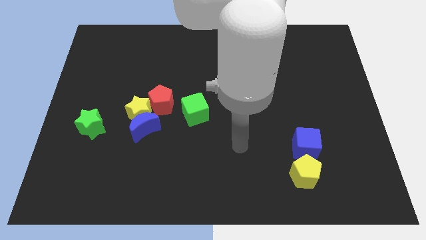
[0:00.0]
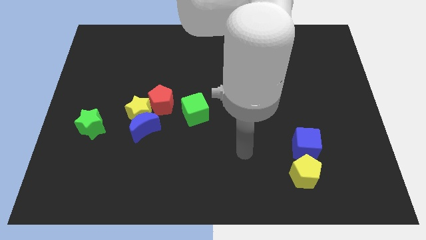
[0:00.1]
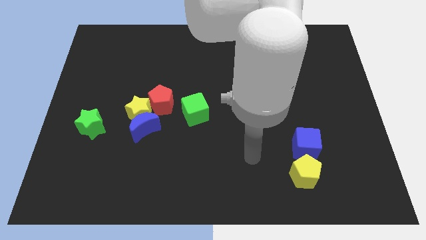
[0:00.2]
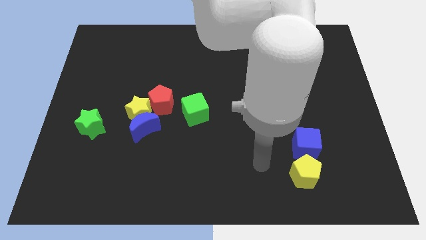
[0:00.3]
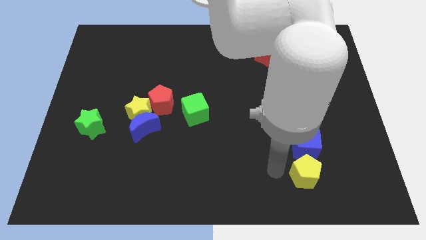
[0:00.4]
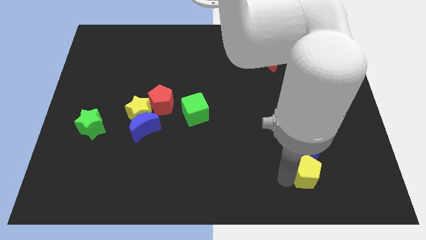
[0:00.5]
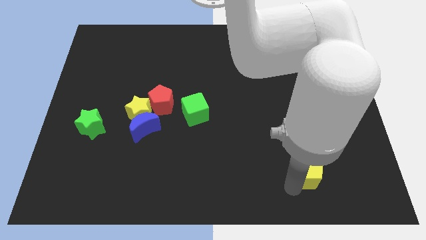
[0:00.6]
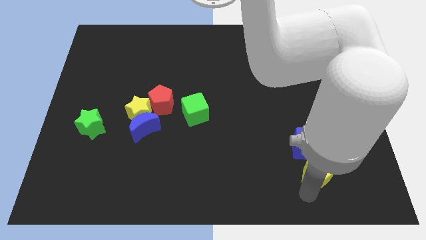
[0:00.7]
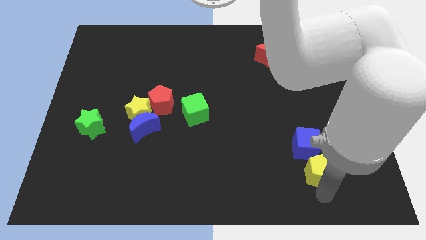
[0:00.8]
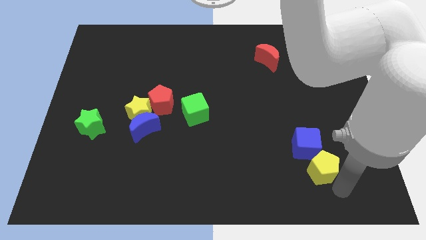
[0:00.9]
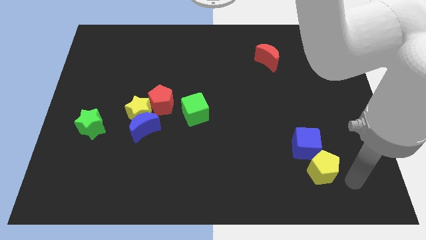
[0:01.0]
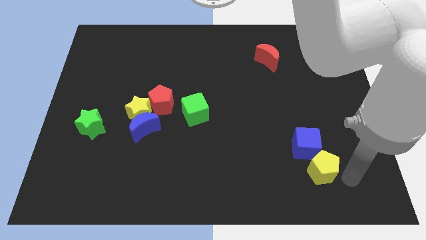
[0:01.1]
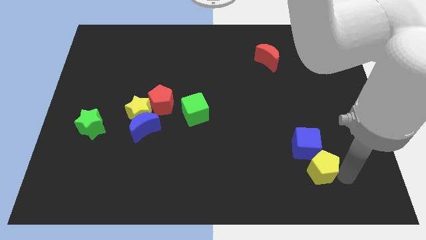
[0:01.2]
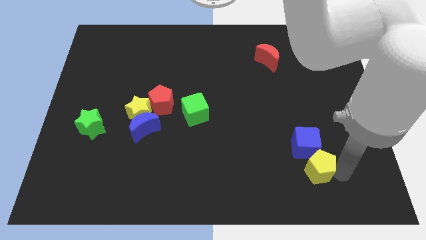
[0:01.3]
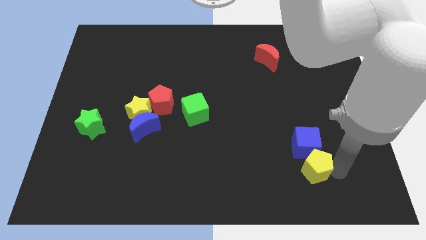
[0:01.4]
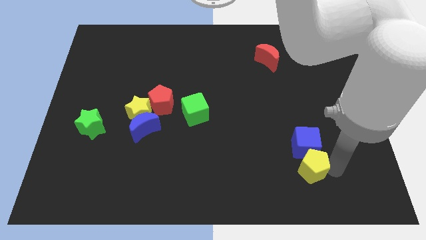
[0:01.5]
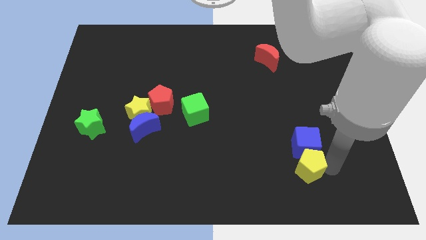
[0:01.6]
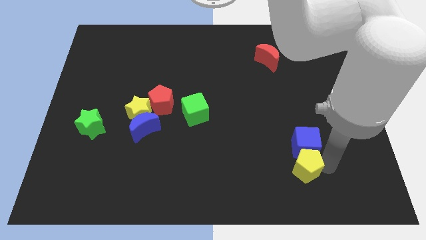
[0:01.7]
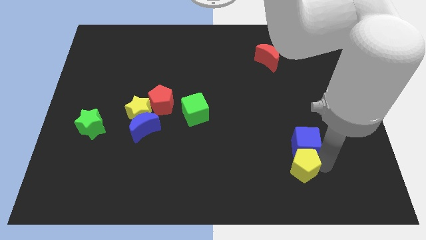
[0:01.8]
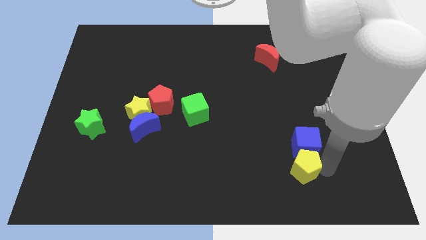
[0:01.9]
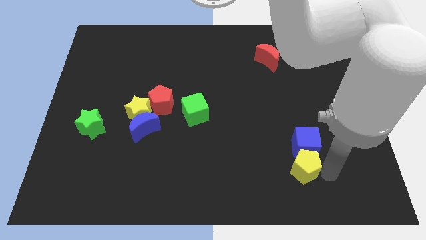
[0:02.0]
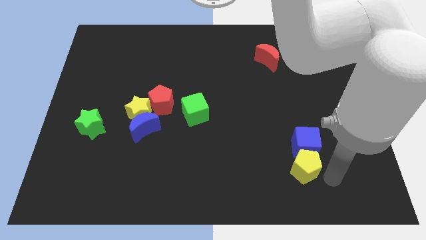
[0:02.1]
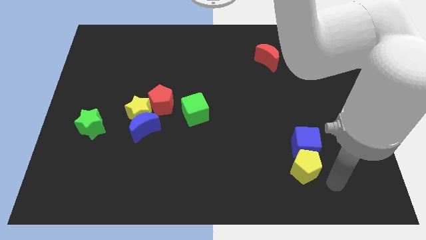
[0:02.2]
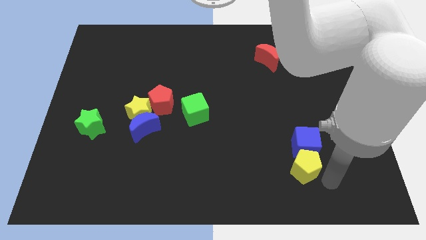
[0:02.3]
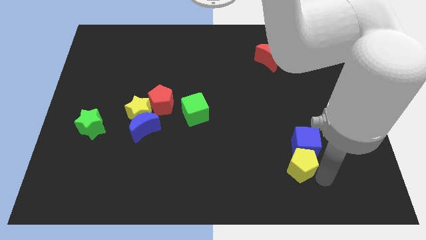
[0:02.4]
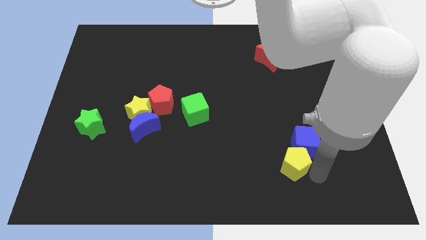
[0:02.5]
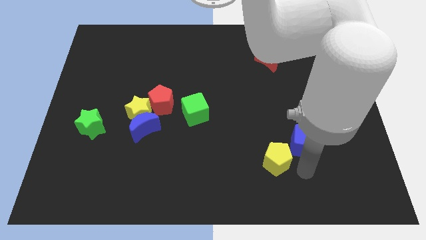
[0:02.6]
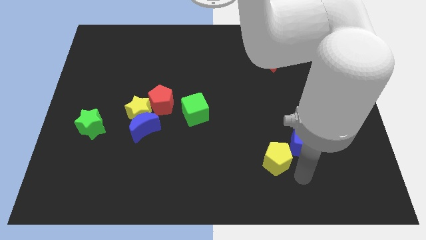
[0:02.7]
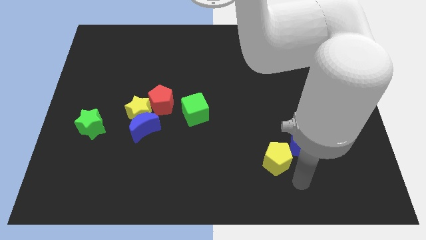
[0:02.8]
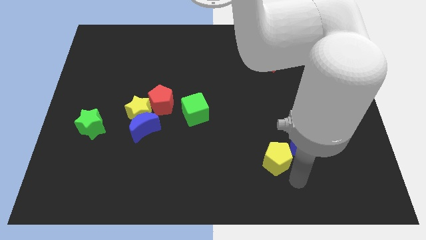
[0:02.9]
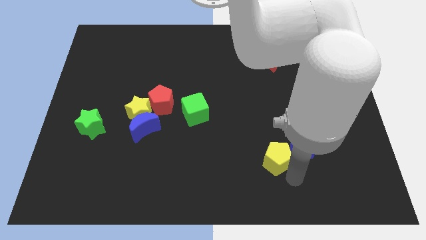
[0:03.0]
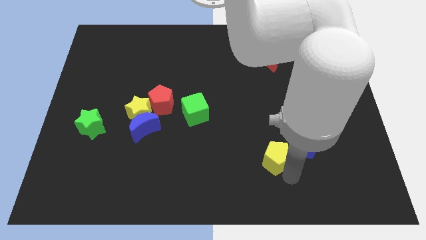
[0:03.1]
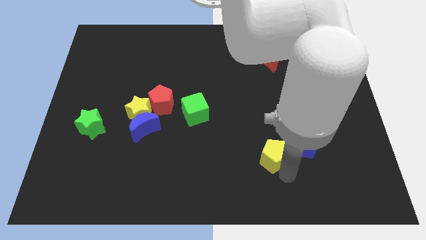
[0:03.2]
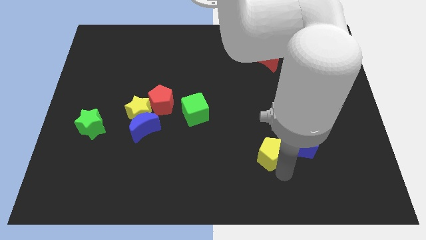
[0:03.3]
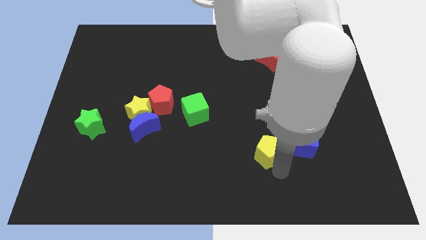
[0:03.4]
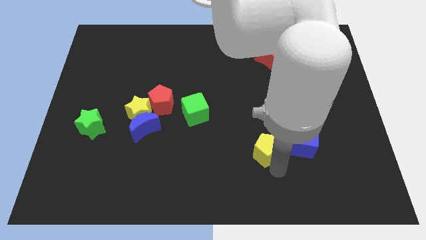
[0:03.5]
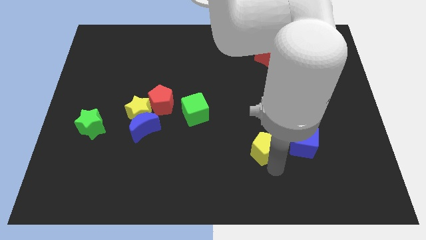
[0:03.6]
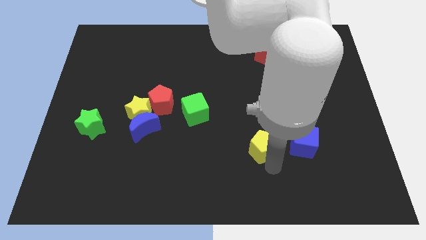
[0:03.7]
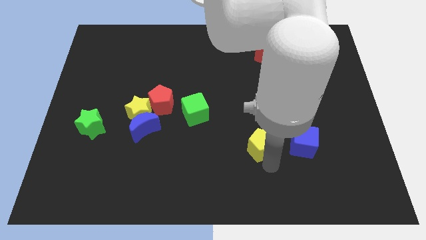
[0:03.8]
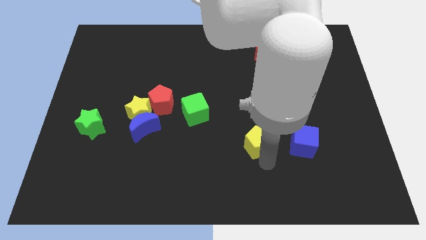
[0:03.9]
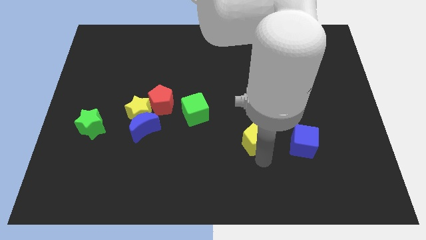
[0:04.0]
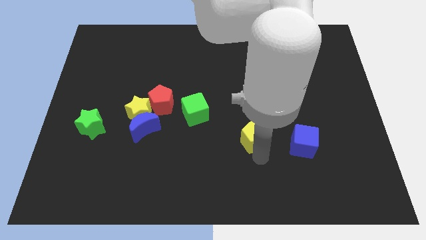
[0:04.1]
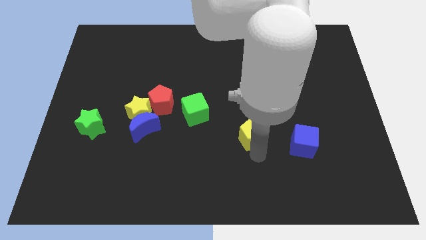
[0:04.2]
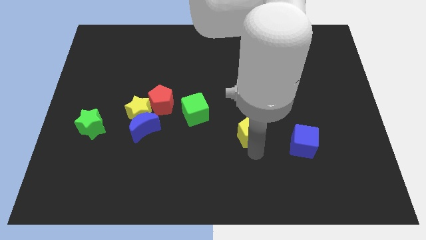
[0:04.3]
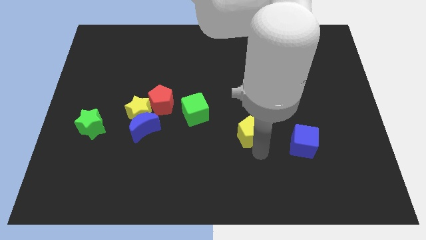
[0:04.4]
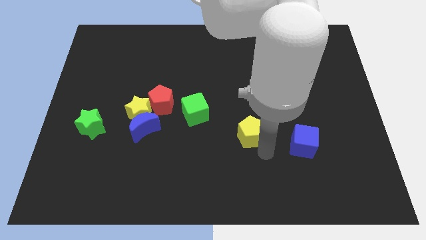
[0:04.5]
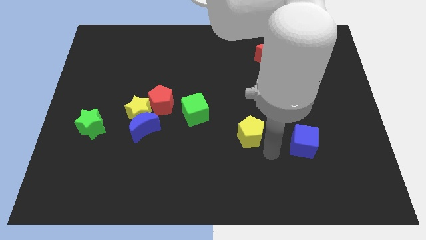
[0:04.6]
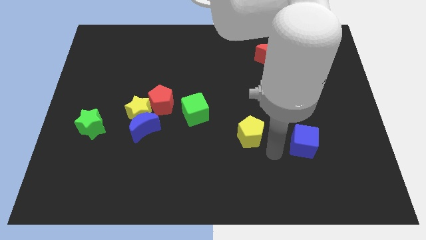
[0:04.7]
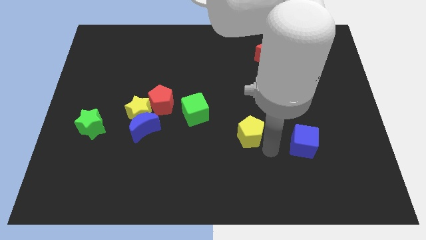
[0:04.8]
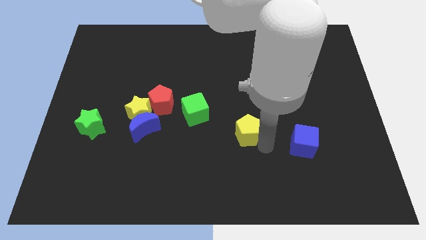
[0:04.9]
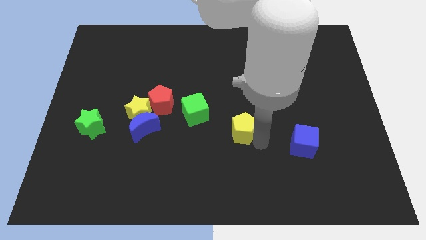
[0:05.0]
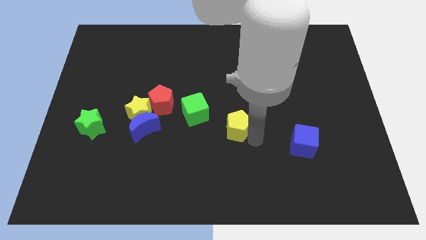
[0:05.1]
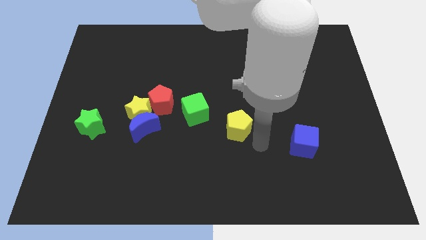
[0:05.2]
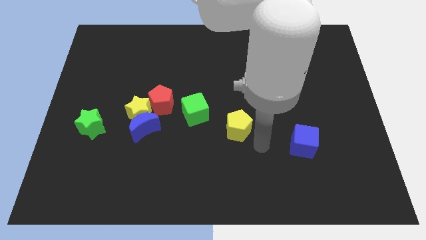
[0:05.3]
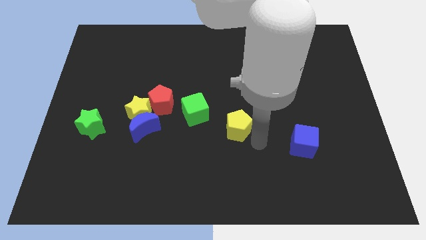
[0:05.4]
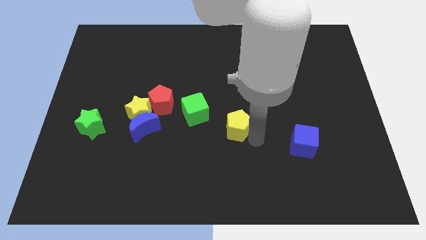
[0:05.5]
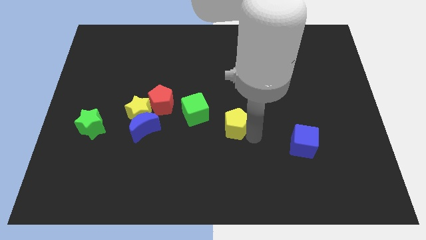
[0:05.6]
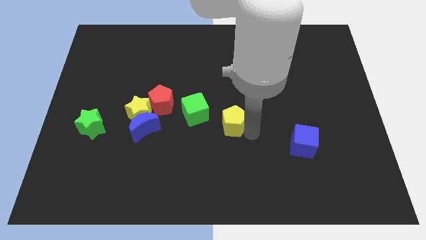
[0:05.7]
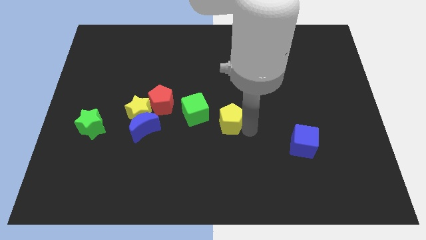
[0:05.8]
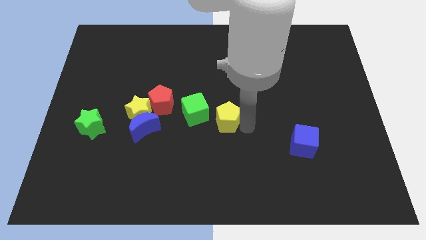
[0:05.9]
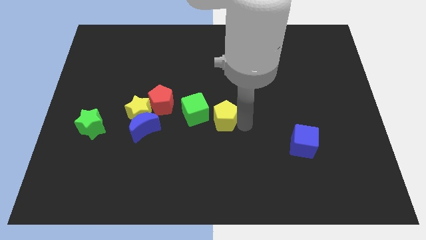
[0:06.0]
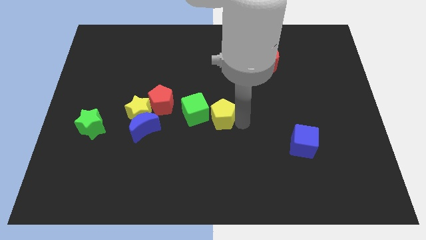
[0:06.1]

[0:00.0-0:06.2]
push the yellow pentagon to the right side of the red pentagon

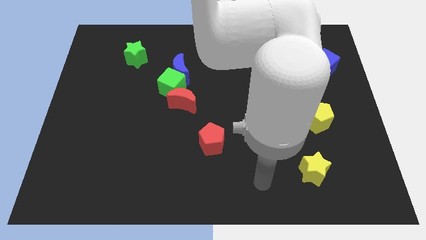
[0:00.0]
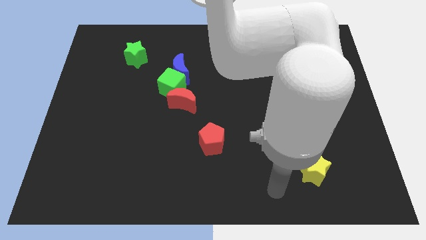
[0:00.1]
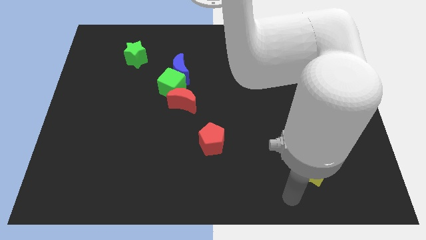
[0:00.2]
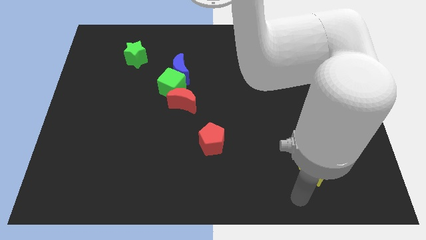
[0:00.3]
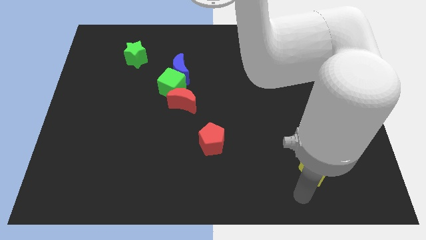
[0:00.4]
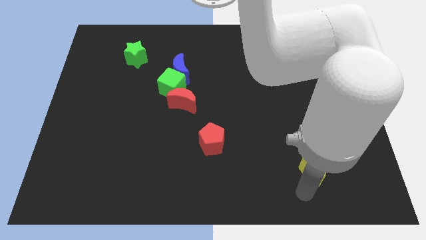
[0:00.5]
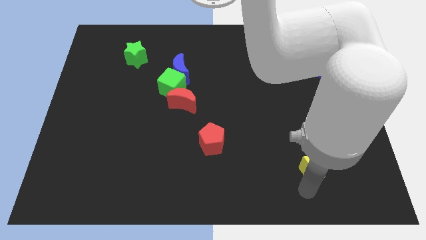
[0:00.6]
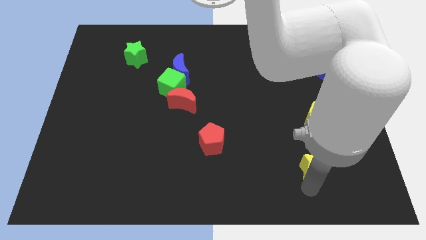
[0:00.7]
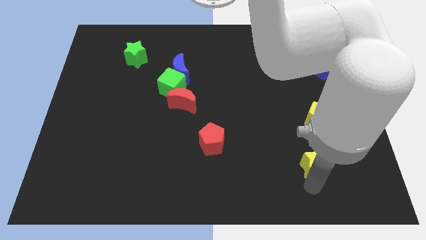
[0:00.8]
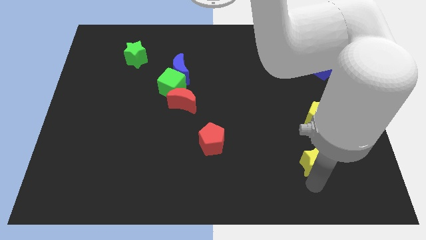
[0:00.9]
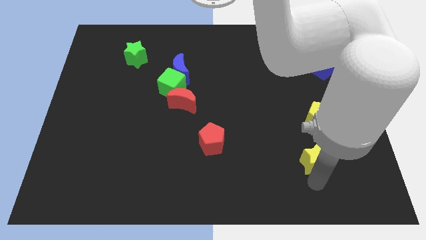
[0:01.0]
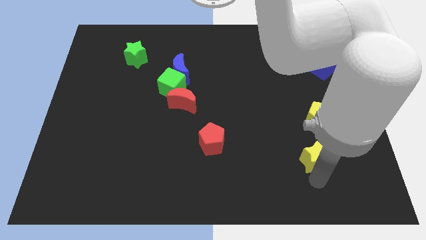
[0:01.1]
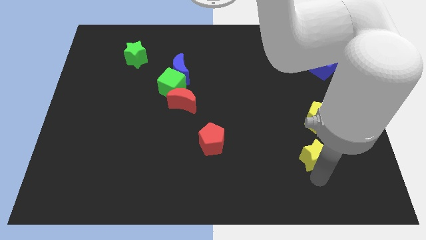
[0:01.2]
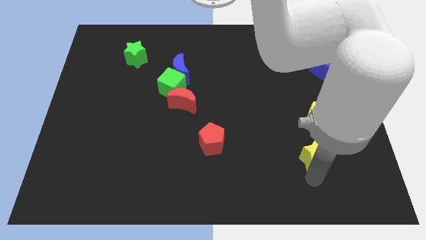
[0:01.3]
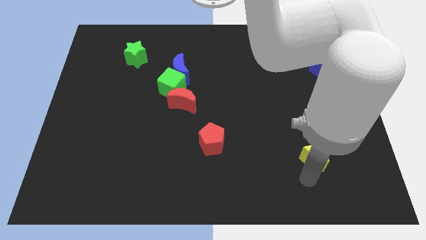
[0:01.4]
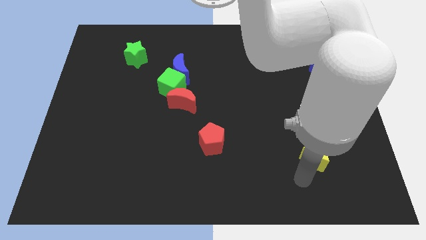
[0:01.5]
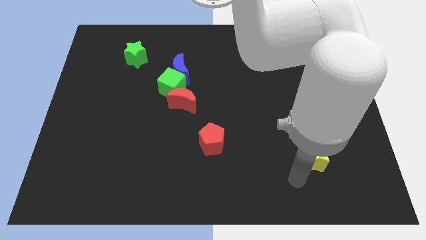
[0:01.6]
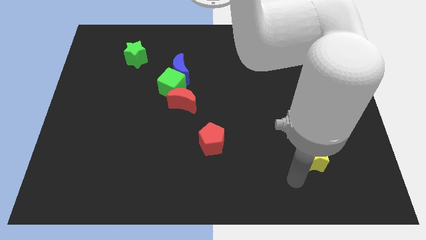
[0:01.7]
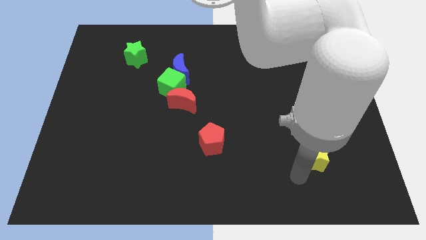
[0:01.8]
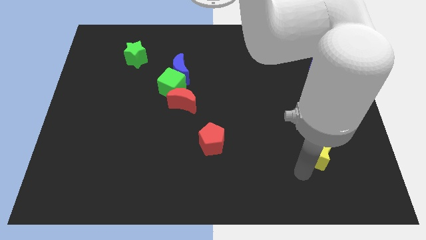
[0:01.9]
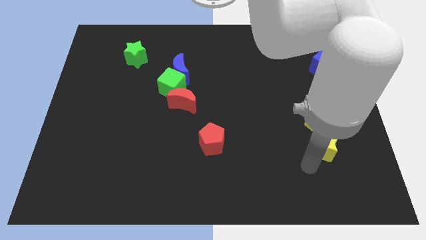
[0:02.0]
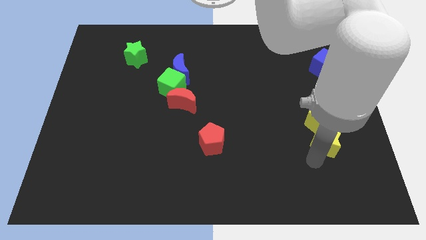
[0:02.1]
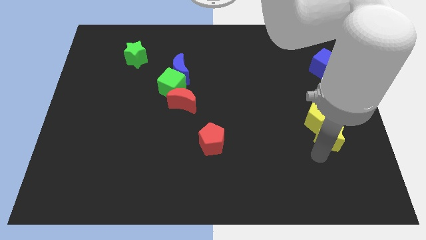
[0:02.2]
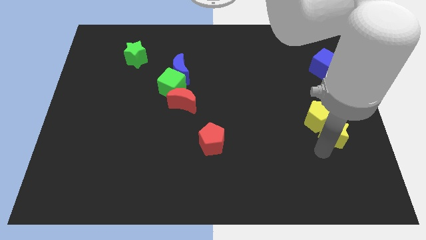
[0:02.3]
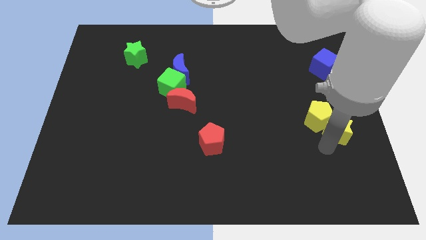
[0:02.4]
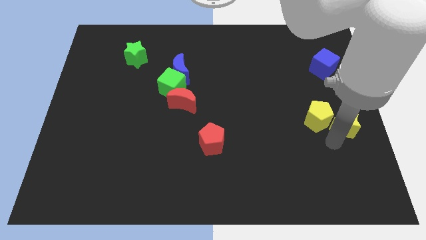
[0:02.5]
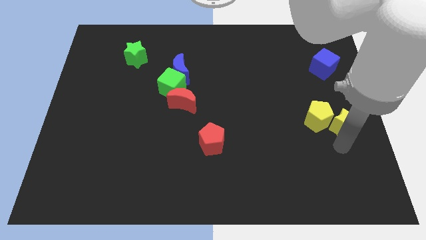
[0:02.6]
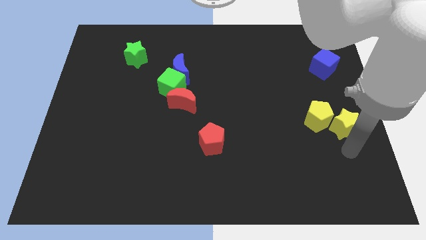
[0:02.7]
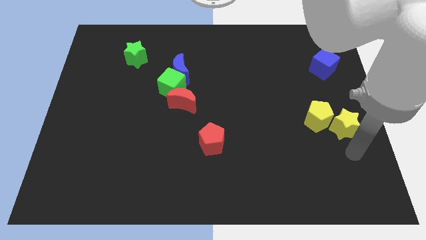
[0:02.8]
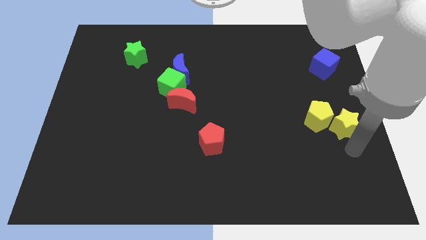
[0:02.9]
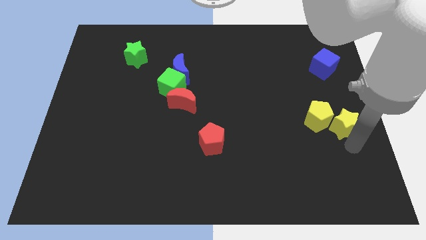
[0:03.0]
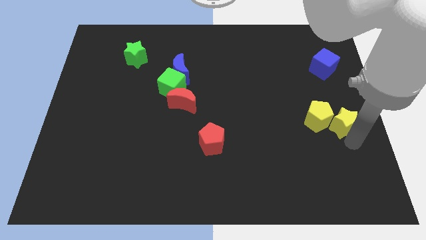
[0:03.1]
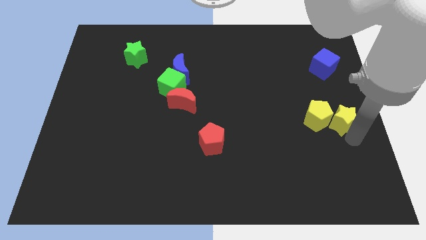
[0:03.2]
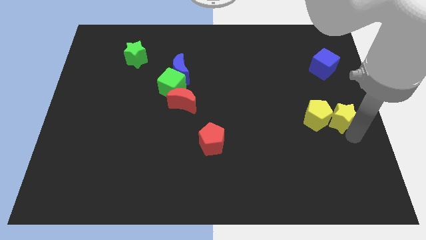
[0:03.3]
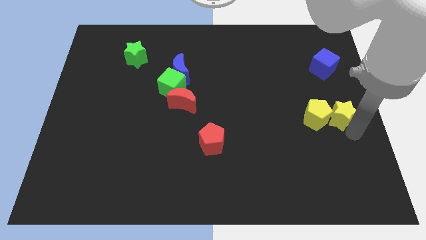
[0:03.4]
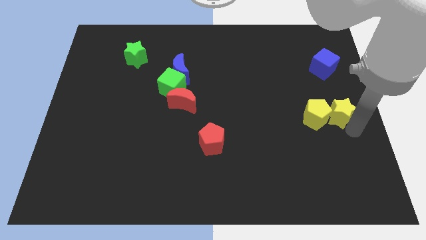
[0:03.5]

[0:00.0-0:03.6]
slide the yellow star to the bottom of the blue cube
